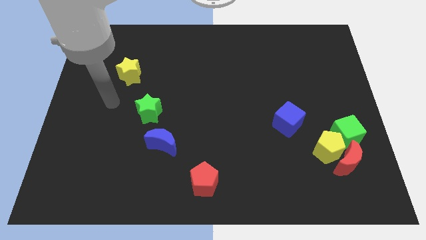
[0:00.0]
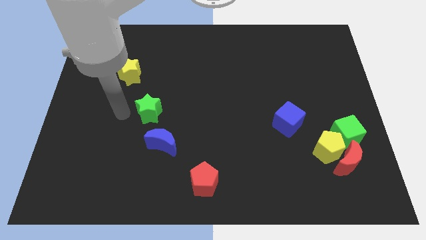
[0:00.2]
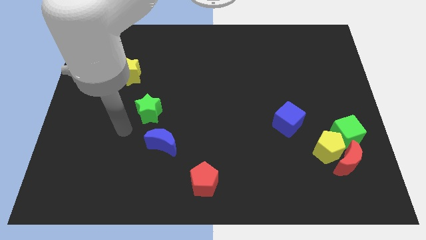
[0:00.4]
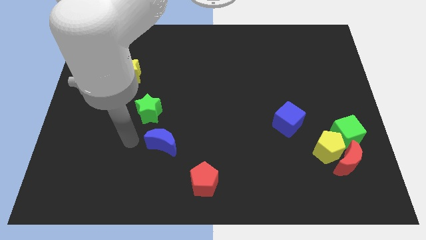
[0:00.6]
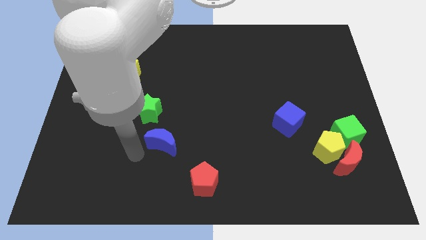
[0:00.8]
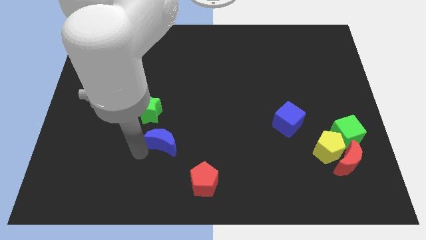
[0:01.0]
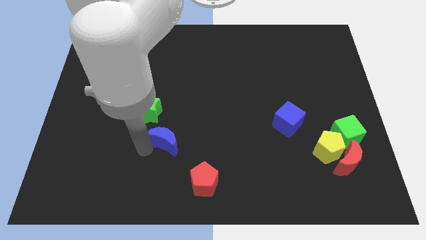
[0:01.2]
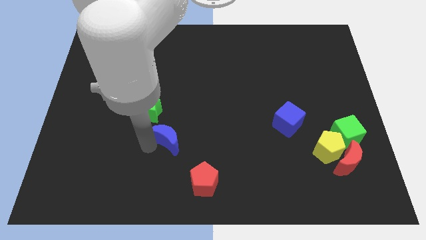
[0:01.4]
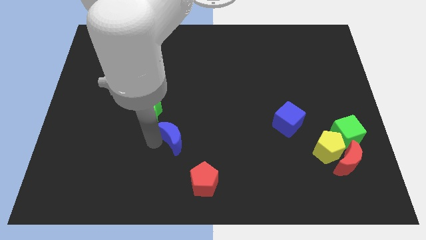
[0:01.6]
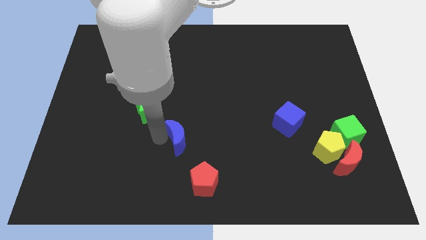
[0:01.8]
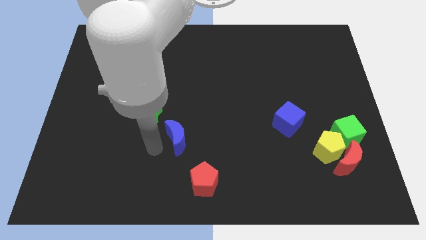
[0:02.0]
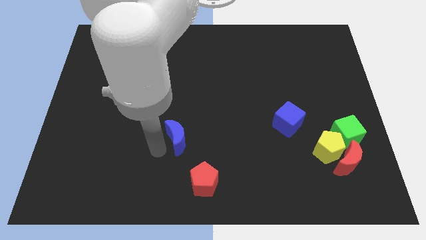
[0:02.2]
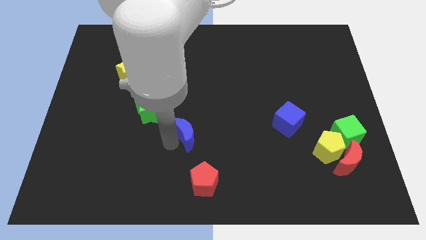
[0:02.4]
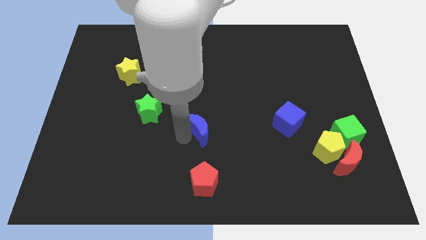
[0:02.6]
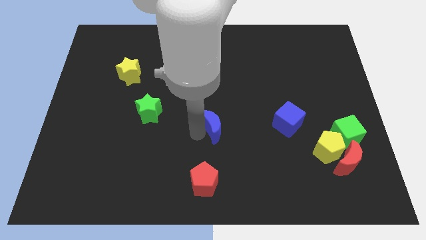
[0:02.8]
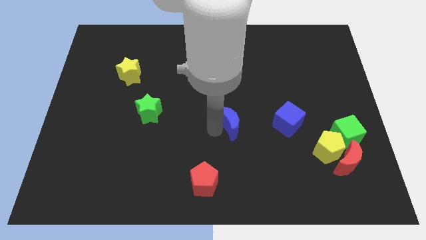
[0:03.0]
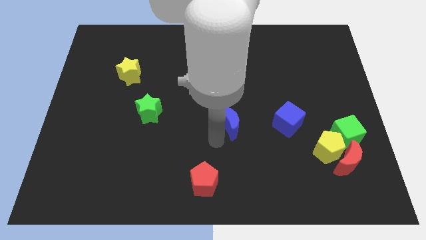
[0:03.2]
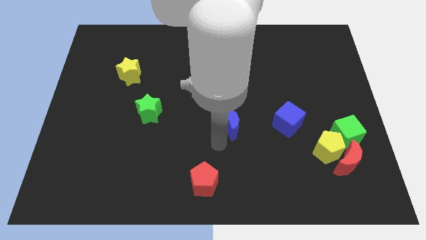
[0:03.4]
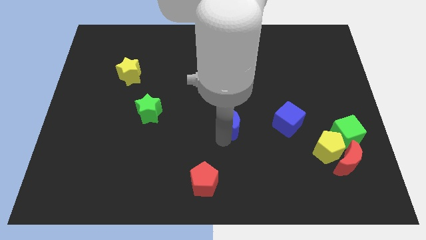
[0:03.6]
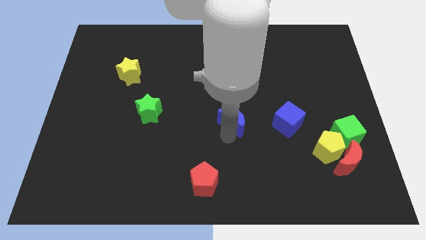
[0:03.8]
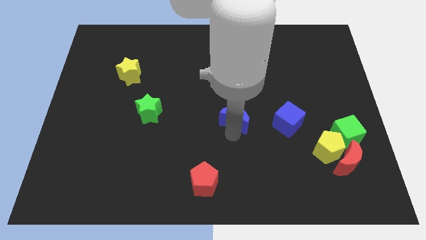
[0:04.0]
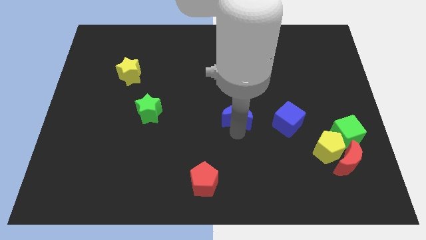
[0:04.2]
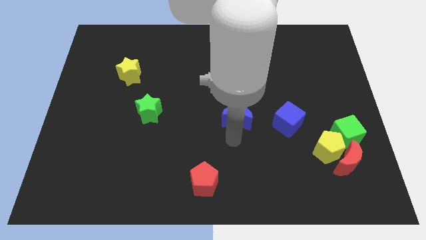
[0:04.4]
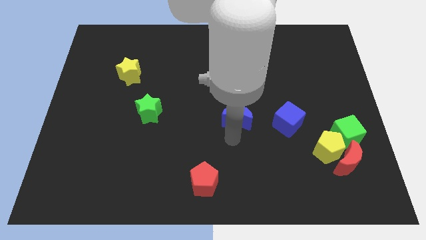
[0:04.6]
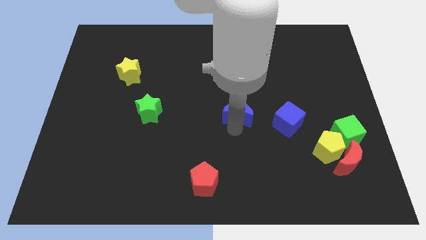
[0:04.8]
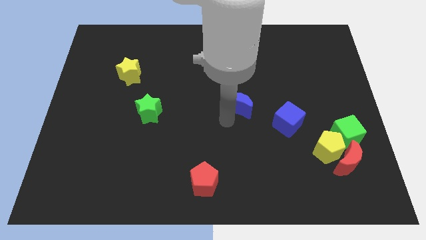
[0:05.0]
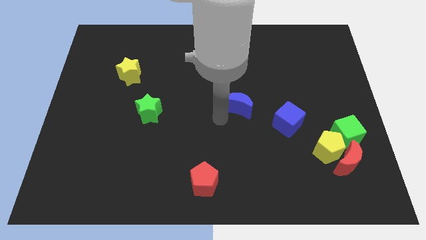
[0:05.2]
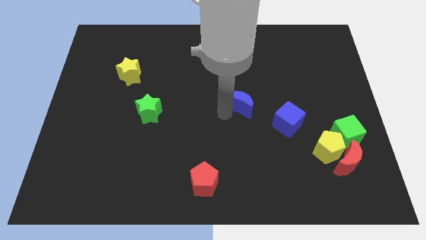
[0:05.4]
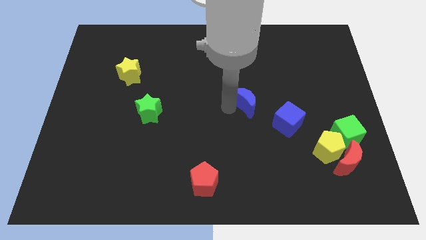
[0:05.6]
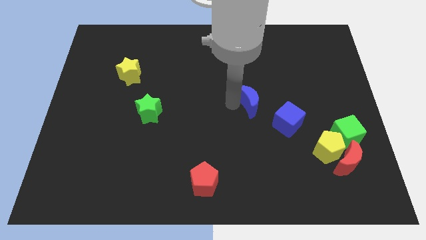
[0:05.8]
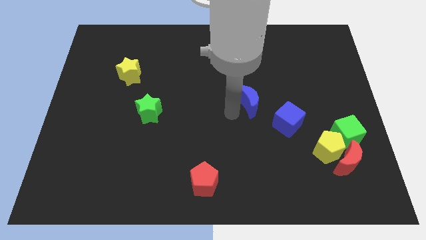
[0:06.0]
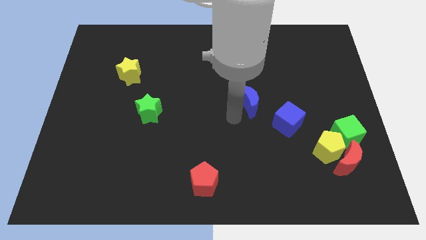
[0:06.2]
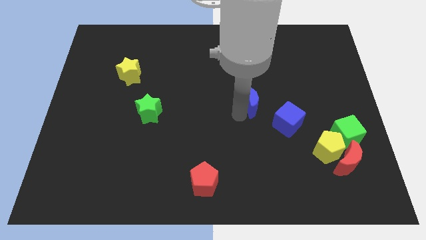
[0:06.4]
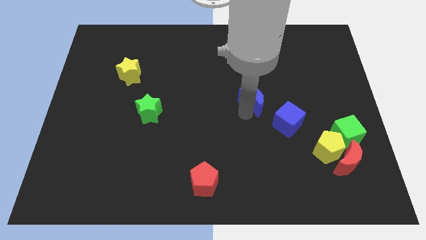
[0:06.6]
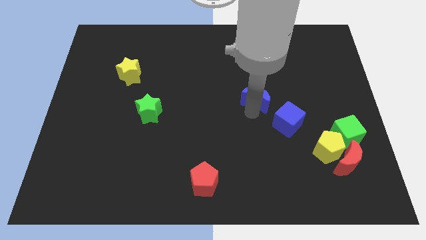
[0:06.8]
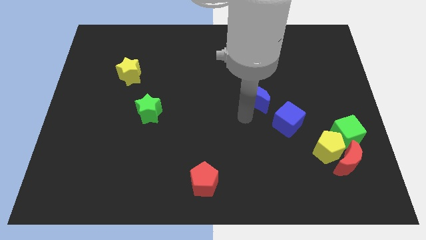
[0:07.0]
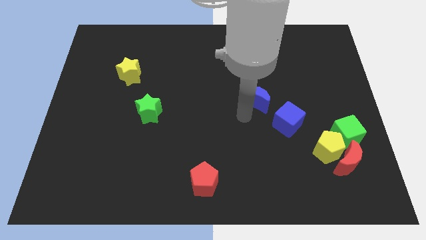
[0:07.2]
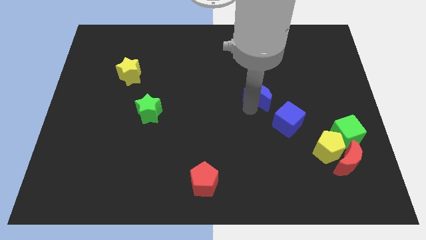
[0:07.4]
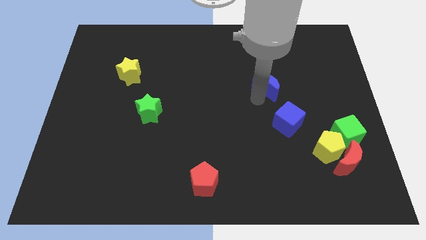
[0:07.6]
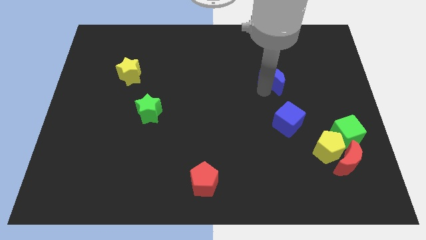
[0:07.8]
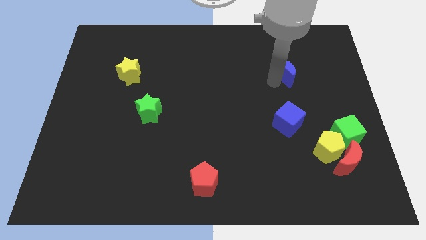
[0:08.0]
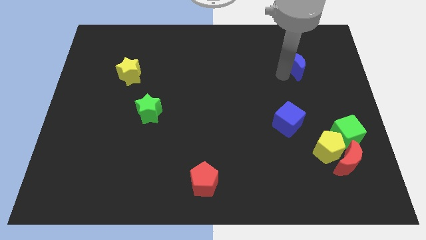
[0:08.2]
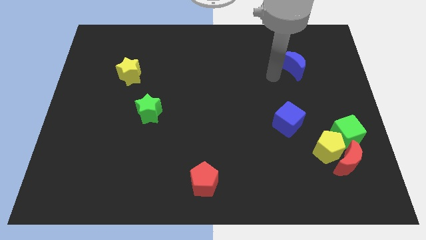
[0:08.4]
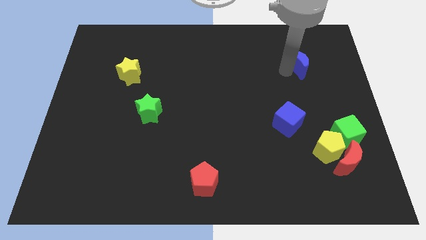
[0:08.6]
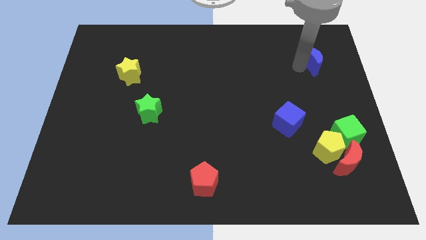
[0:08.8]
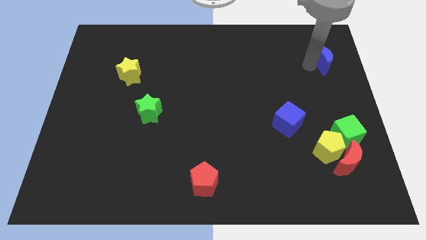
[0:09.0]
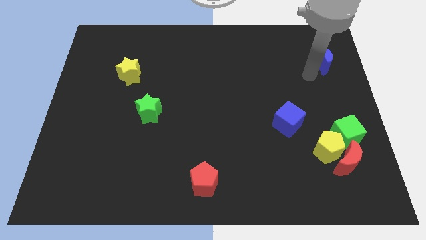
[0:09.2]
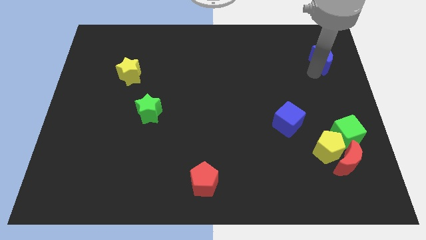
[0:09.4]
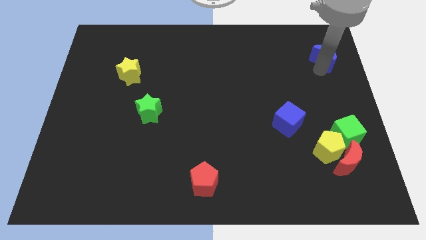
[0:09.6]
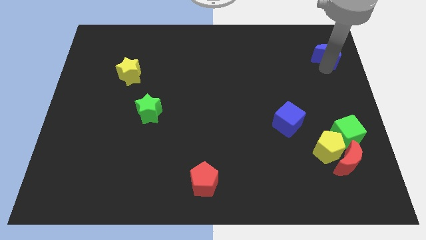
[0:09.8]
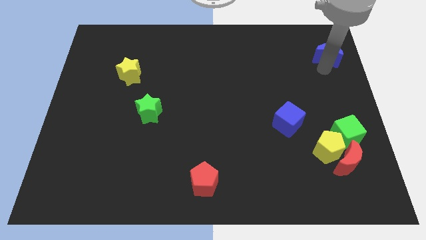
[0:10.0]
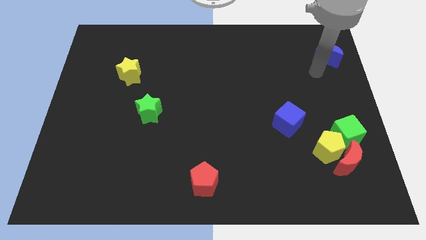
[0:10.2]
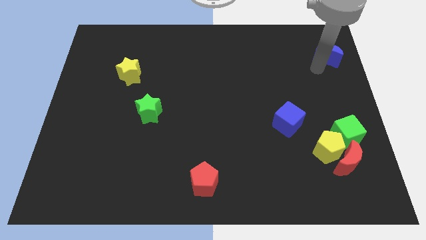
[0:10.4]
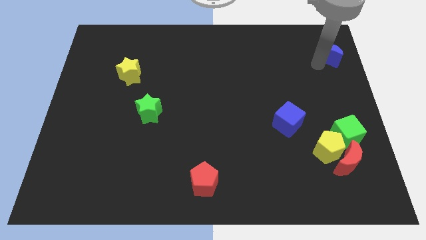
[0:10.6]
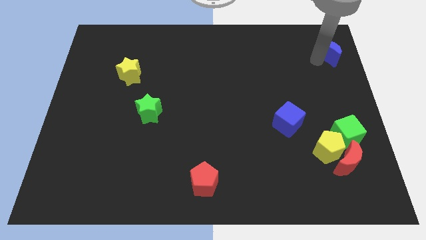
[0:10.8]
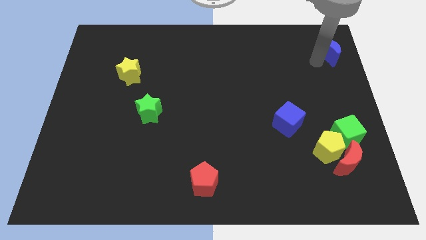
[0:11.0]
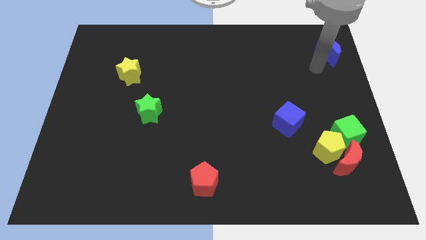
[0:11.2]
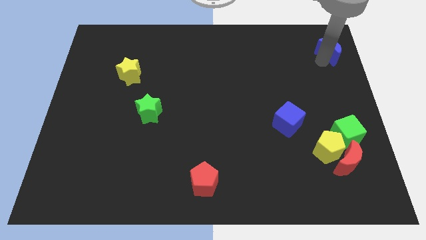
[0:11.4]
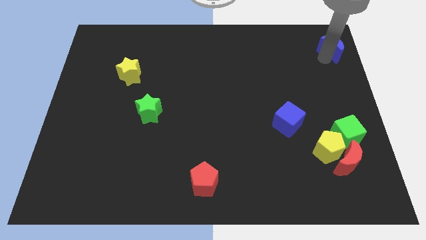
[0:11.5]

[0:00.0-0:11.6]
move the blue moon to the upper right corner

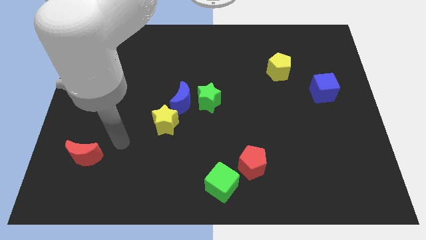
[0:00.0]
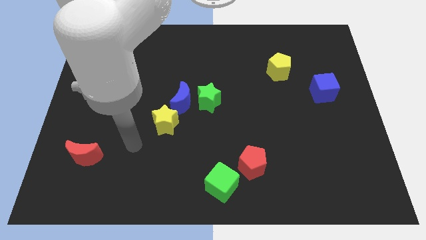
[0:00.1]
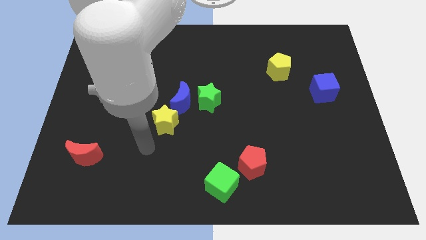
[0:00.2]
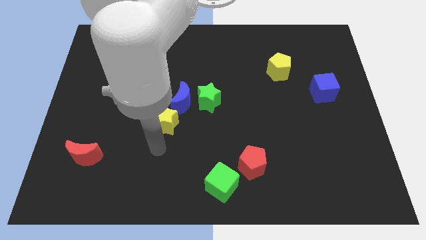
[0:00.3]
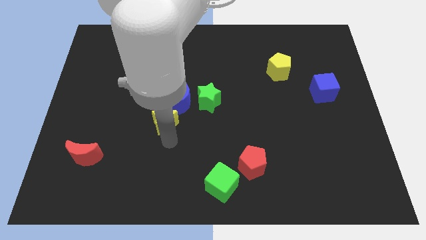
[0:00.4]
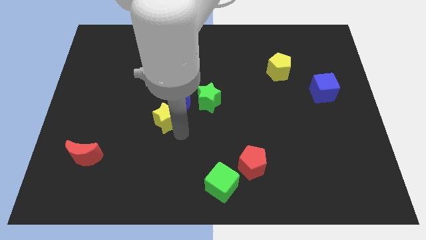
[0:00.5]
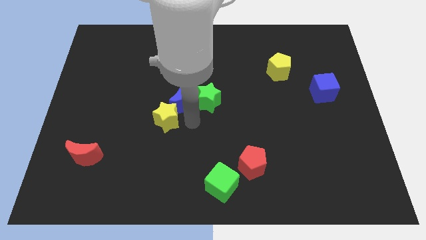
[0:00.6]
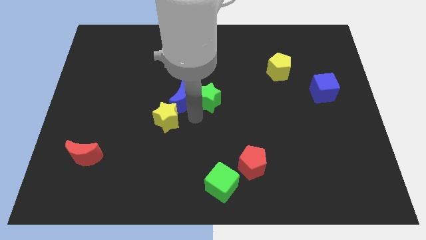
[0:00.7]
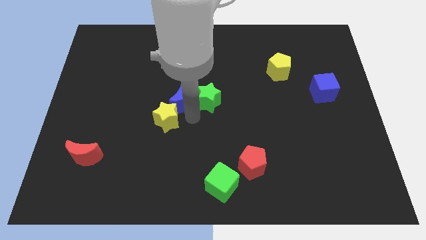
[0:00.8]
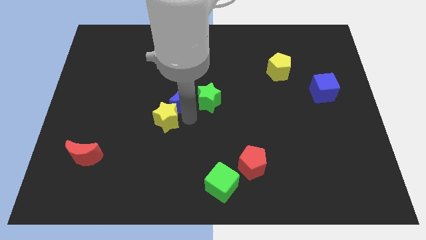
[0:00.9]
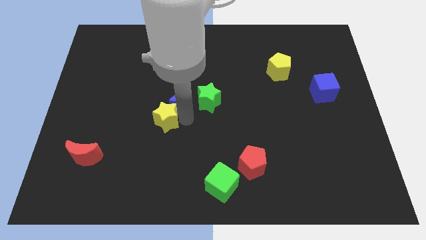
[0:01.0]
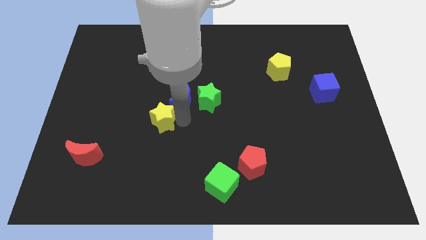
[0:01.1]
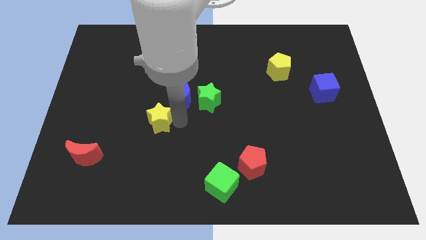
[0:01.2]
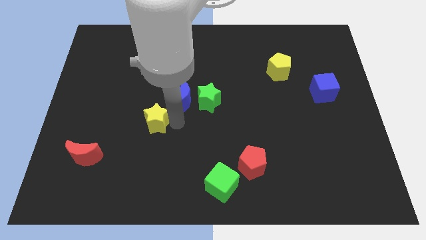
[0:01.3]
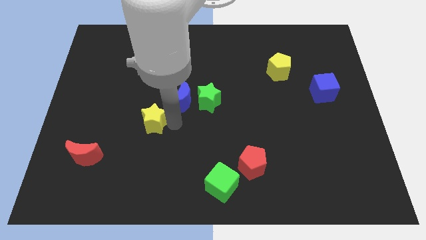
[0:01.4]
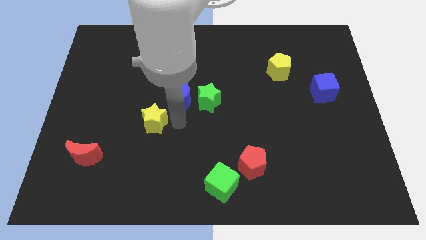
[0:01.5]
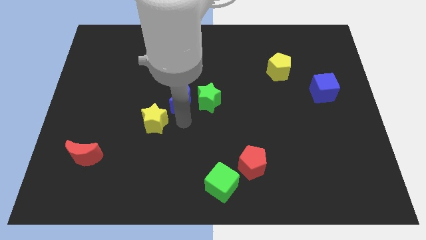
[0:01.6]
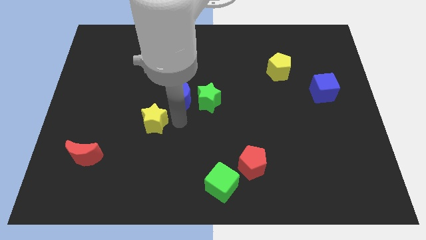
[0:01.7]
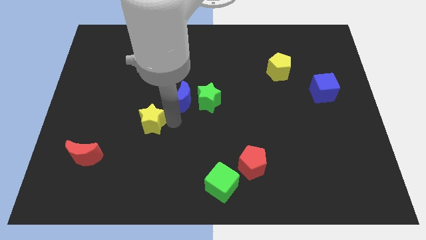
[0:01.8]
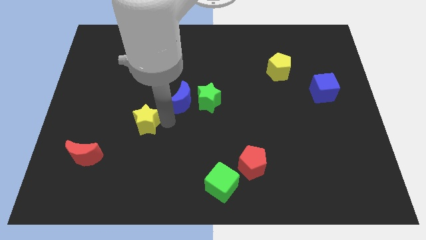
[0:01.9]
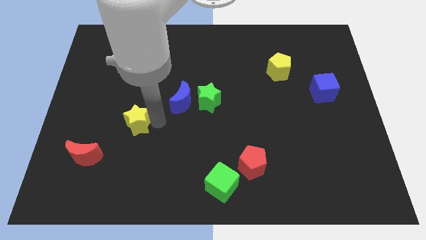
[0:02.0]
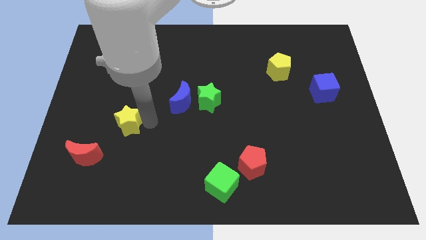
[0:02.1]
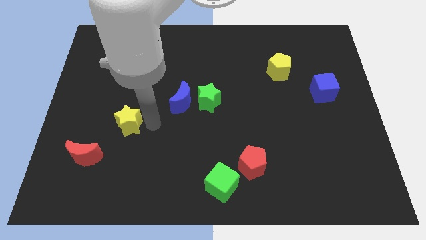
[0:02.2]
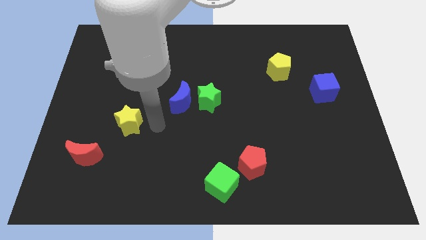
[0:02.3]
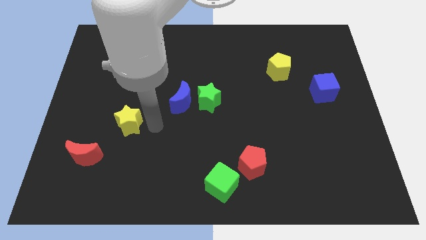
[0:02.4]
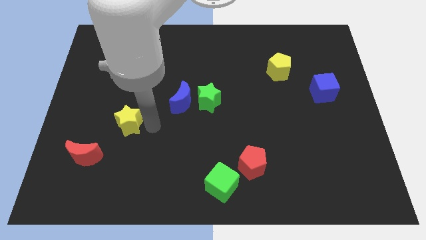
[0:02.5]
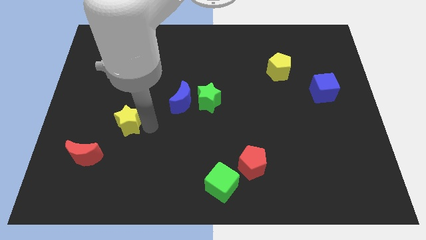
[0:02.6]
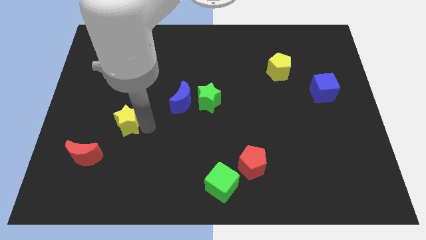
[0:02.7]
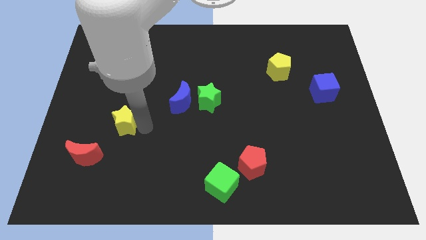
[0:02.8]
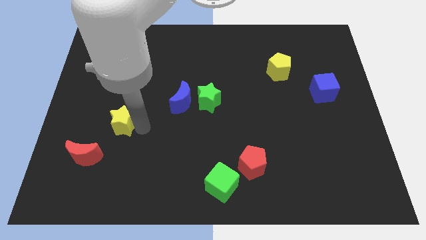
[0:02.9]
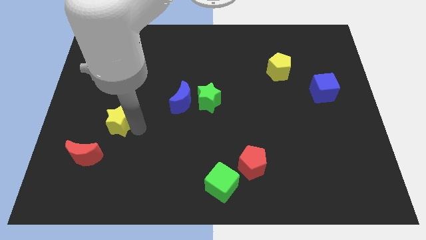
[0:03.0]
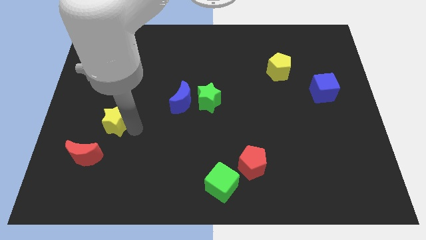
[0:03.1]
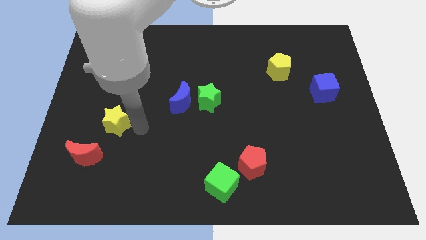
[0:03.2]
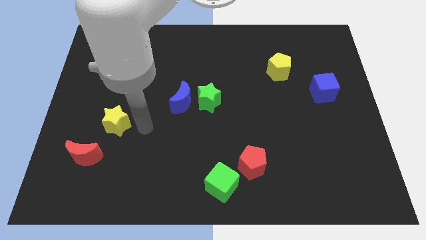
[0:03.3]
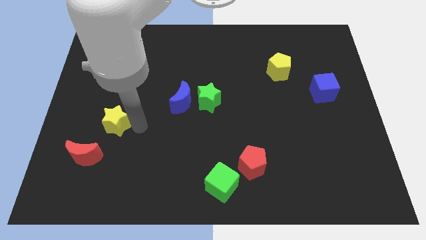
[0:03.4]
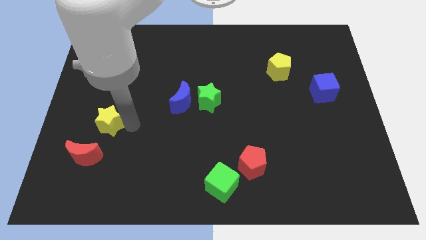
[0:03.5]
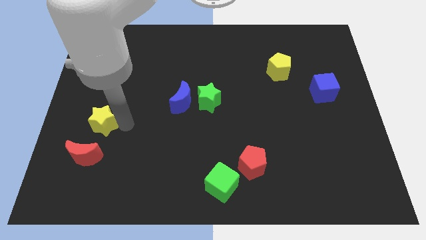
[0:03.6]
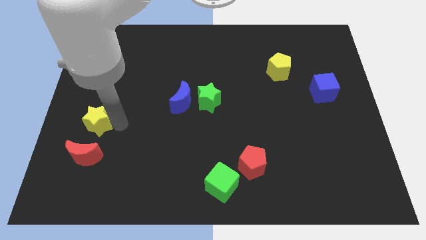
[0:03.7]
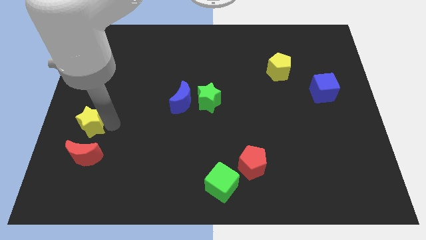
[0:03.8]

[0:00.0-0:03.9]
move the yellow star to the center left
